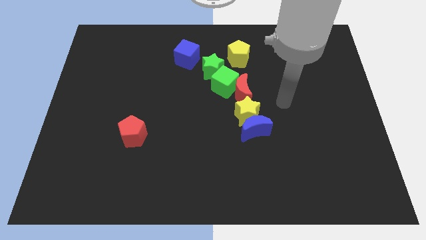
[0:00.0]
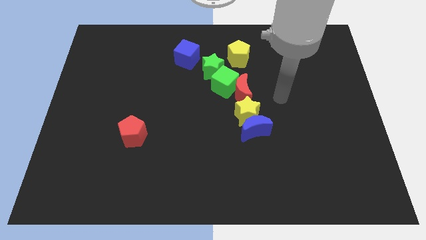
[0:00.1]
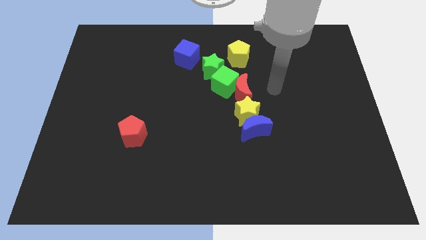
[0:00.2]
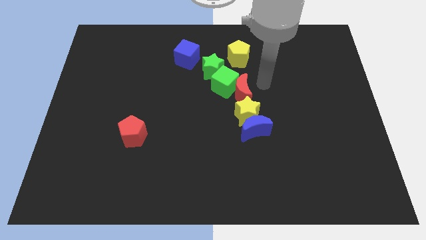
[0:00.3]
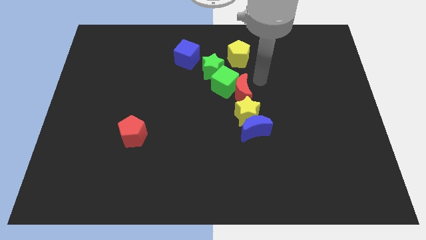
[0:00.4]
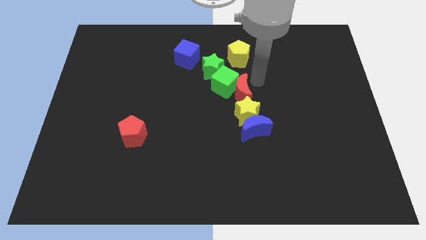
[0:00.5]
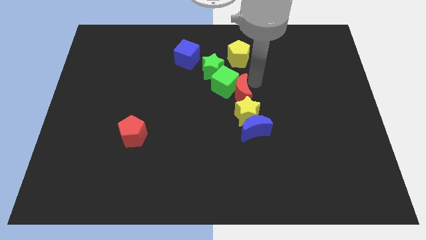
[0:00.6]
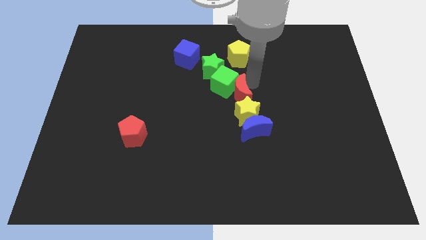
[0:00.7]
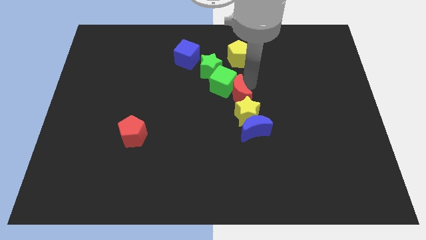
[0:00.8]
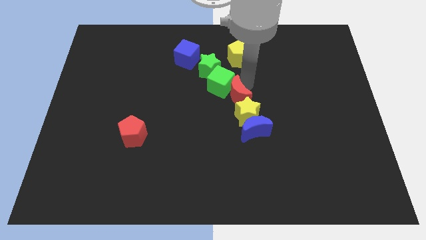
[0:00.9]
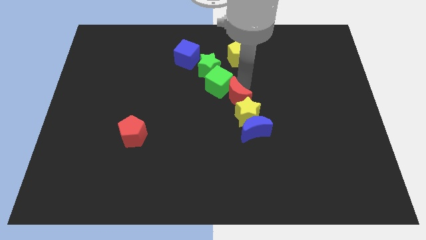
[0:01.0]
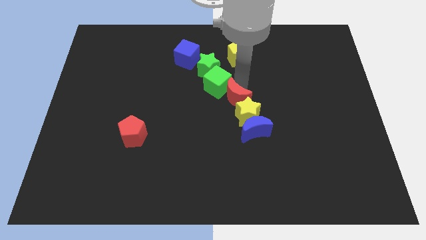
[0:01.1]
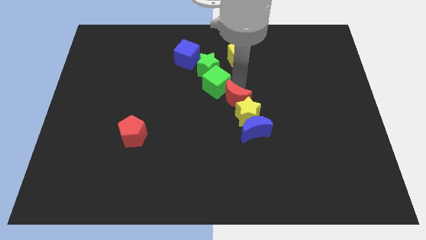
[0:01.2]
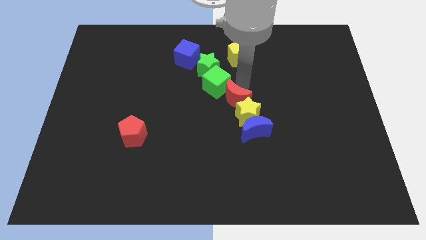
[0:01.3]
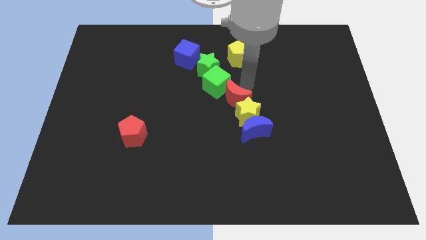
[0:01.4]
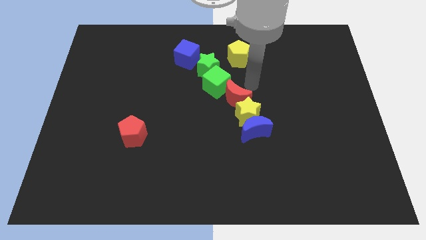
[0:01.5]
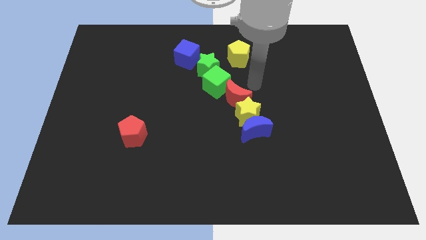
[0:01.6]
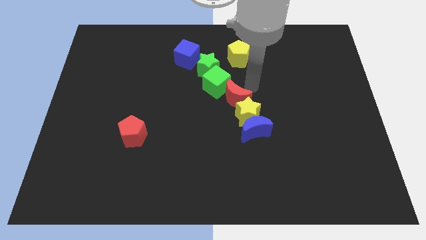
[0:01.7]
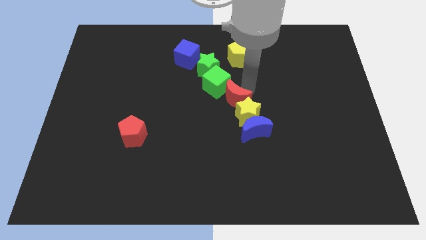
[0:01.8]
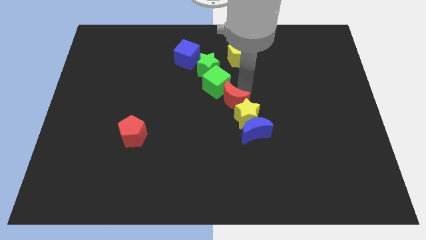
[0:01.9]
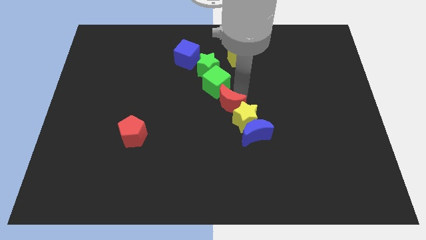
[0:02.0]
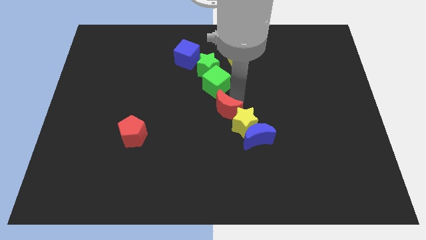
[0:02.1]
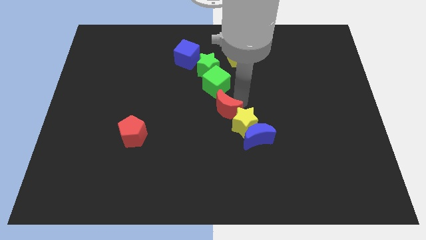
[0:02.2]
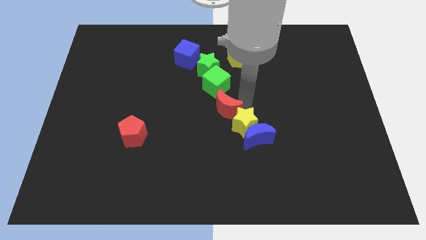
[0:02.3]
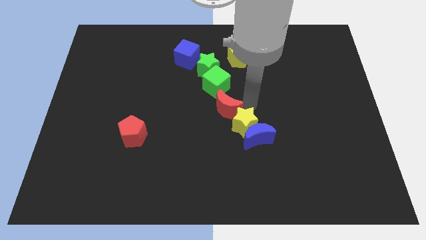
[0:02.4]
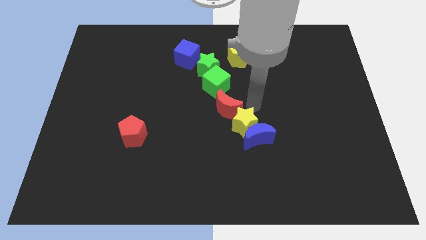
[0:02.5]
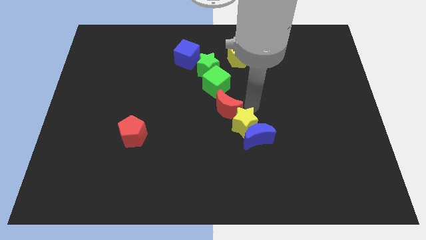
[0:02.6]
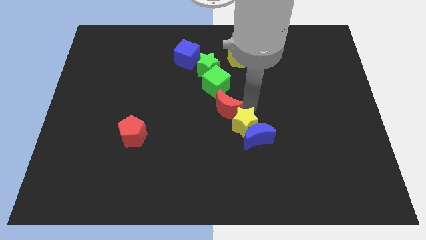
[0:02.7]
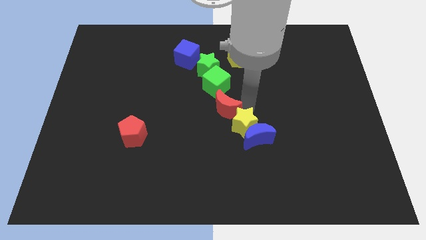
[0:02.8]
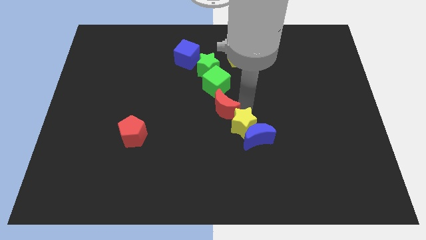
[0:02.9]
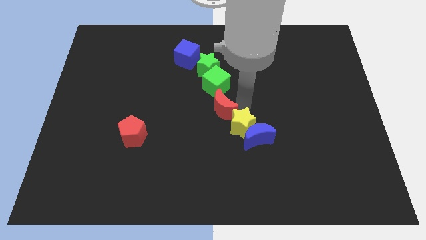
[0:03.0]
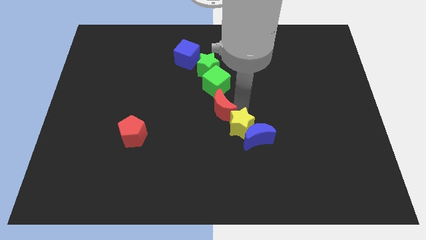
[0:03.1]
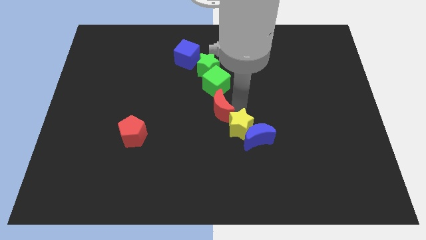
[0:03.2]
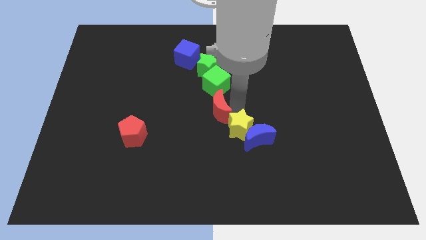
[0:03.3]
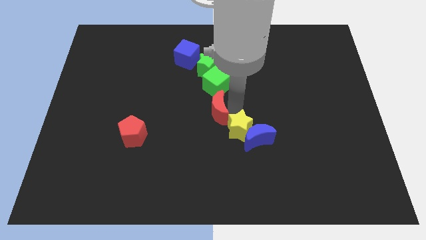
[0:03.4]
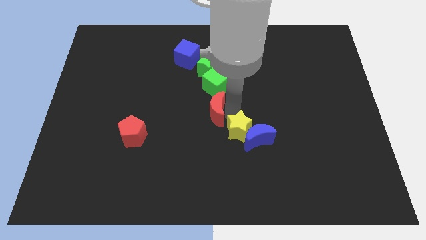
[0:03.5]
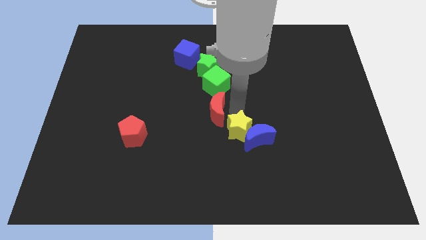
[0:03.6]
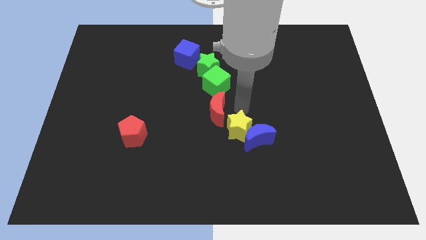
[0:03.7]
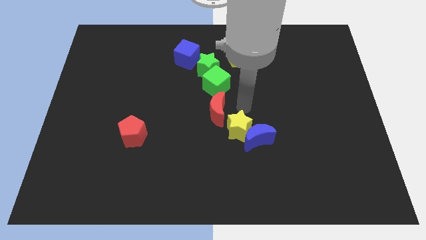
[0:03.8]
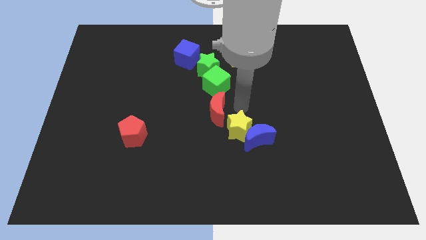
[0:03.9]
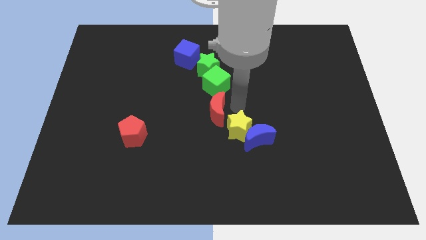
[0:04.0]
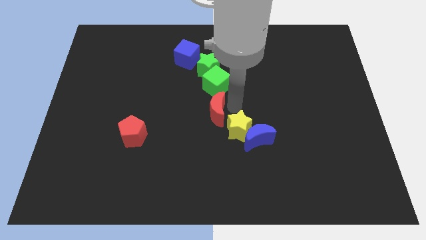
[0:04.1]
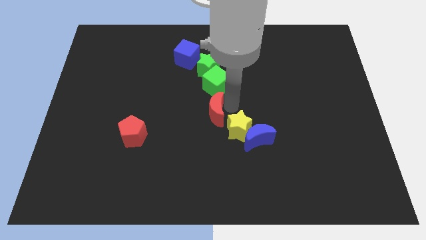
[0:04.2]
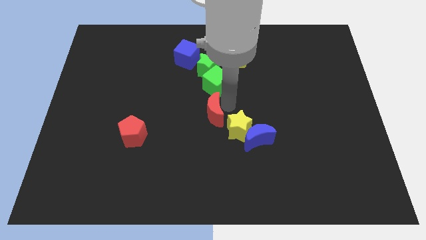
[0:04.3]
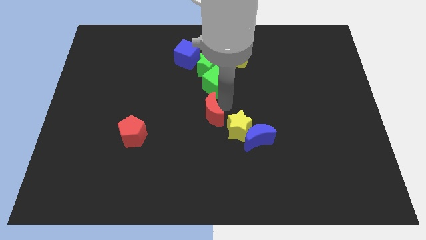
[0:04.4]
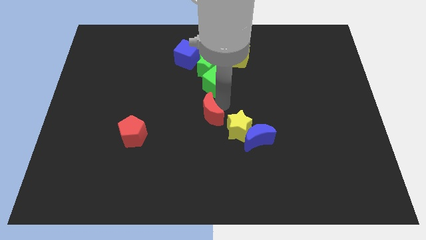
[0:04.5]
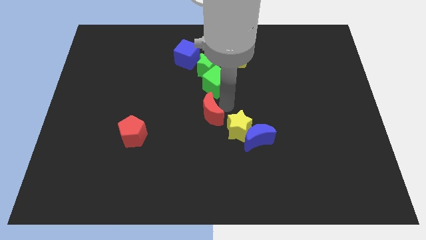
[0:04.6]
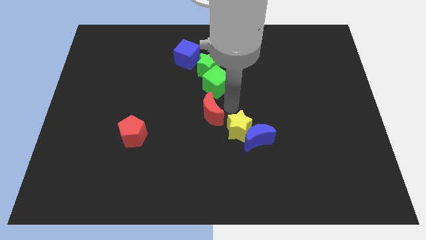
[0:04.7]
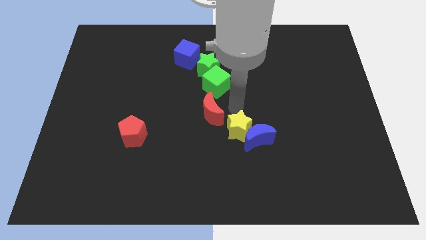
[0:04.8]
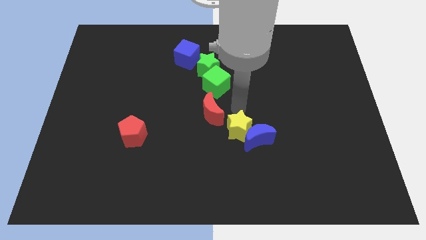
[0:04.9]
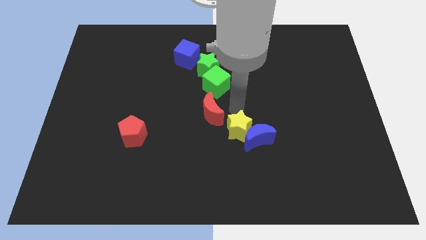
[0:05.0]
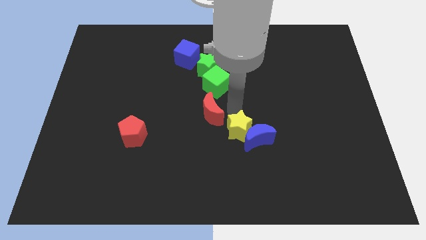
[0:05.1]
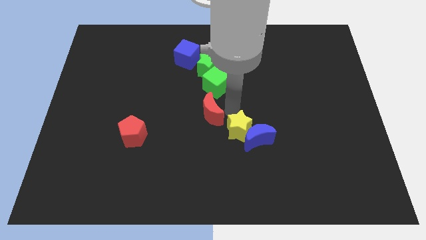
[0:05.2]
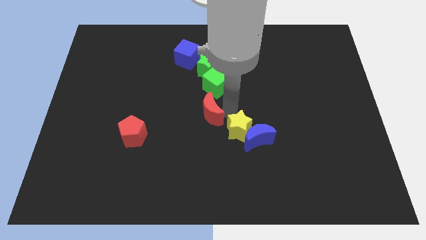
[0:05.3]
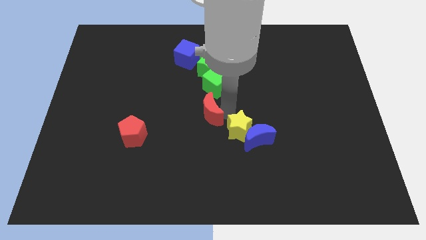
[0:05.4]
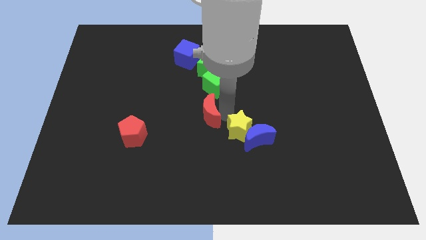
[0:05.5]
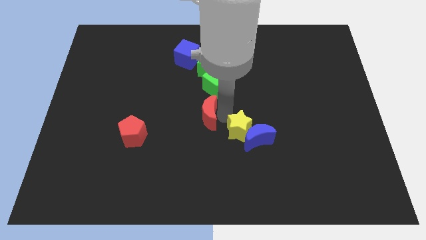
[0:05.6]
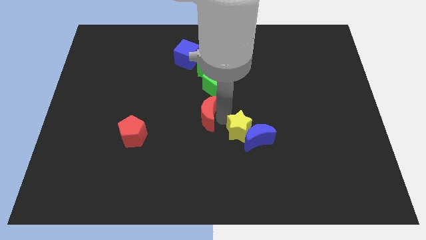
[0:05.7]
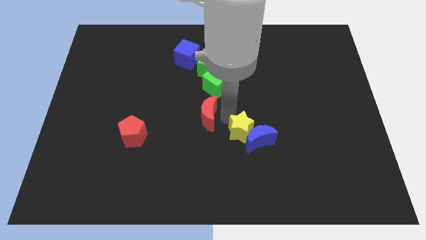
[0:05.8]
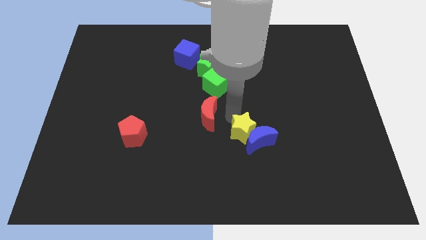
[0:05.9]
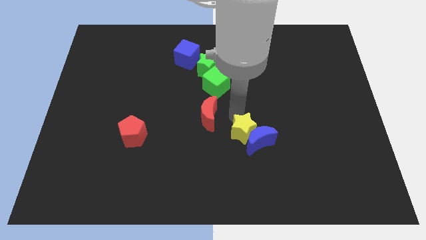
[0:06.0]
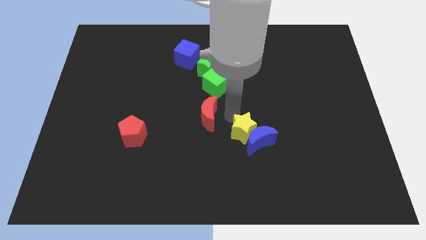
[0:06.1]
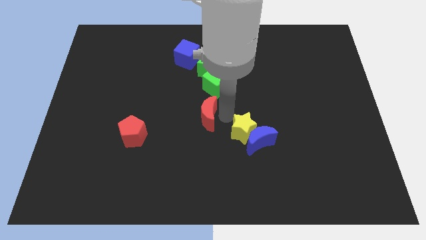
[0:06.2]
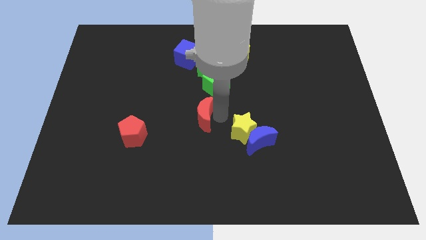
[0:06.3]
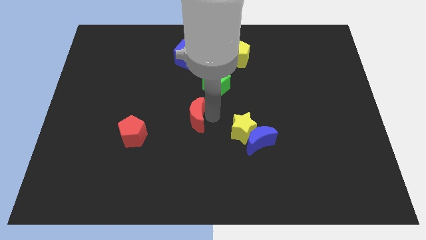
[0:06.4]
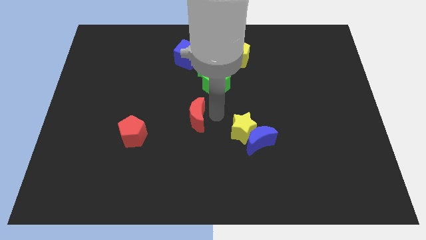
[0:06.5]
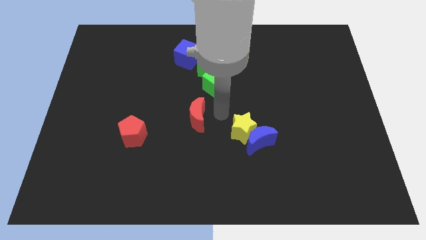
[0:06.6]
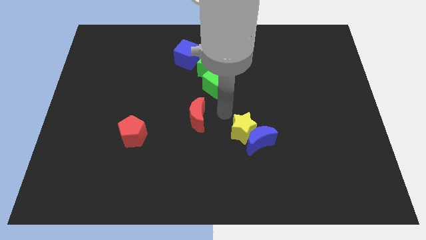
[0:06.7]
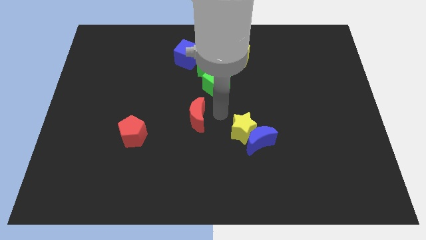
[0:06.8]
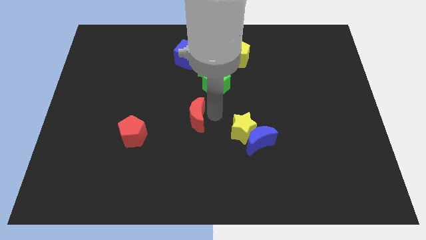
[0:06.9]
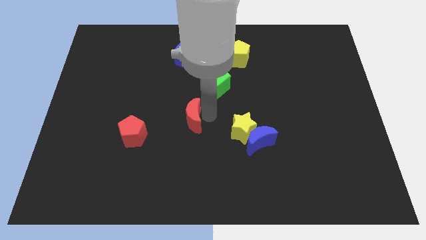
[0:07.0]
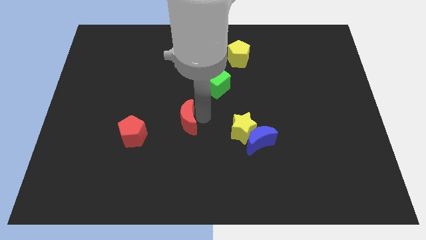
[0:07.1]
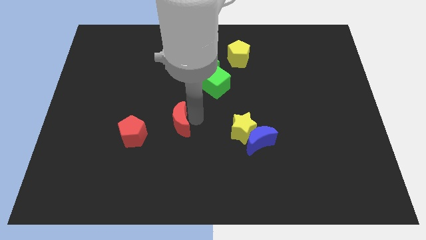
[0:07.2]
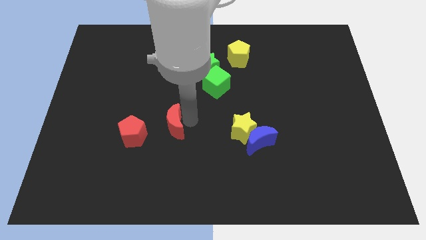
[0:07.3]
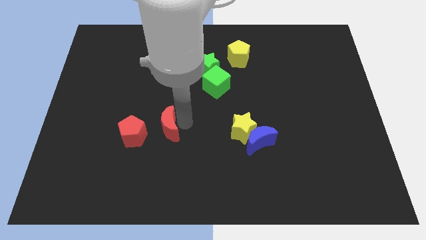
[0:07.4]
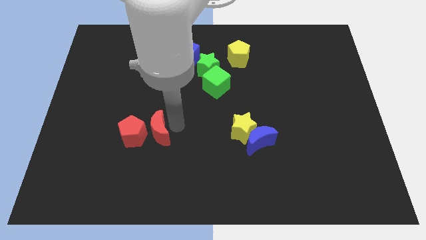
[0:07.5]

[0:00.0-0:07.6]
move the red moon next to the red pentagon

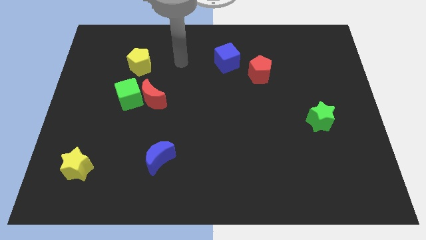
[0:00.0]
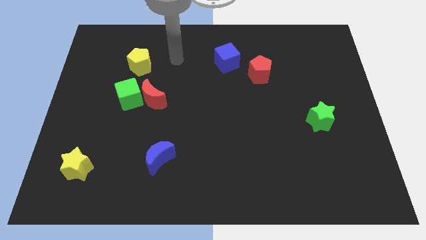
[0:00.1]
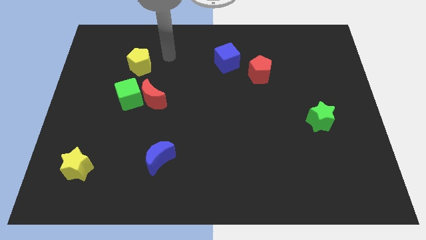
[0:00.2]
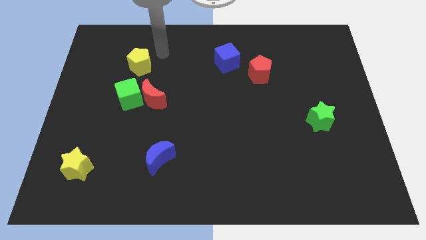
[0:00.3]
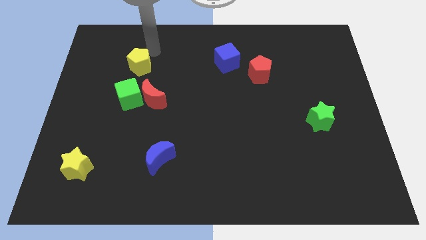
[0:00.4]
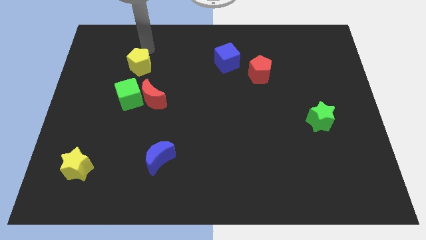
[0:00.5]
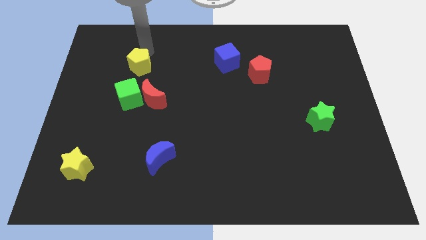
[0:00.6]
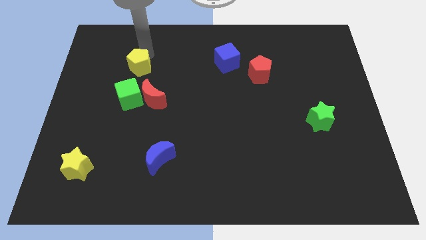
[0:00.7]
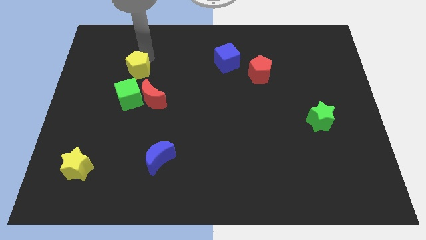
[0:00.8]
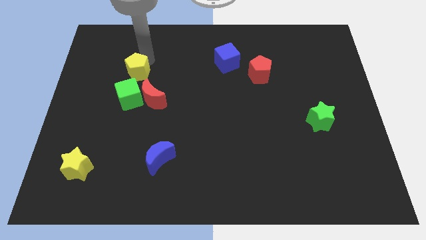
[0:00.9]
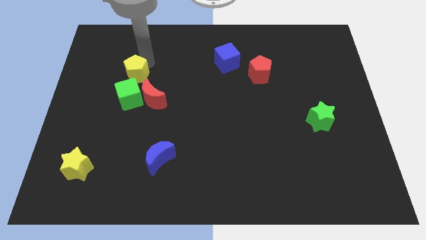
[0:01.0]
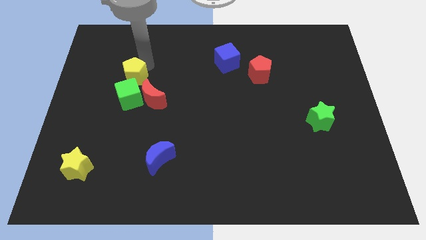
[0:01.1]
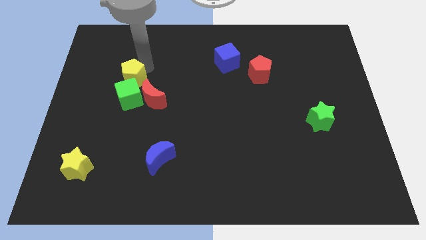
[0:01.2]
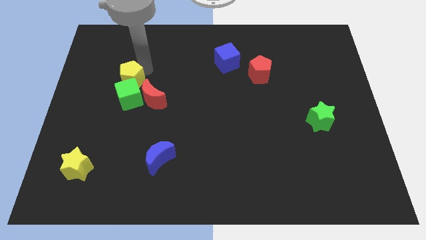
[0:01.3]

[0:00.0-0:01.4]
push the yellow pentagon next to the green cube
